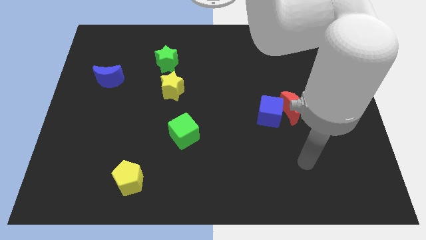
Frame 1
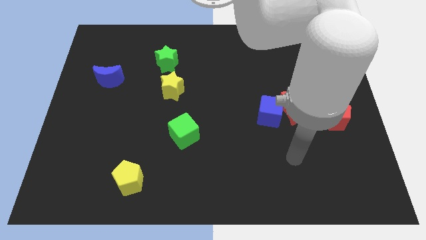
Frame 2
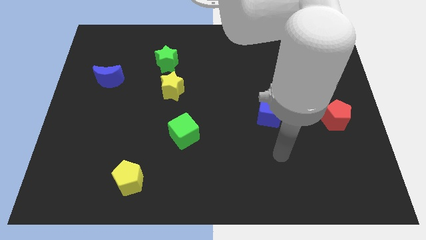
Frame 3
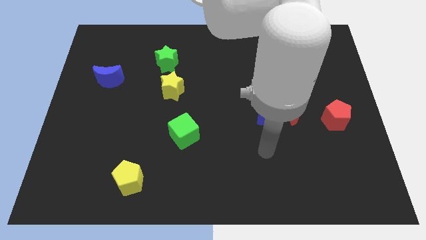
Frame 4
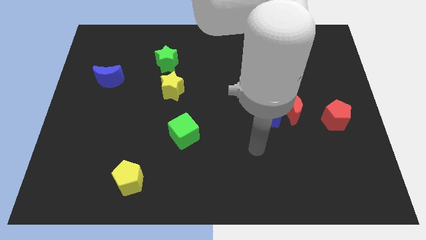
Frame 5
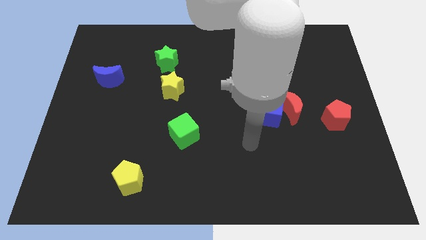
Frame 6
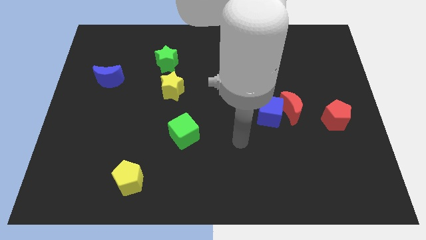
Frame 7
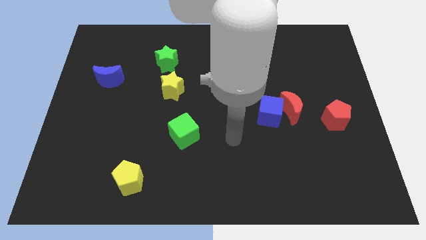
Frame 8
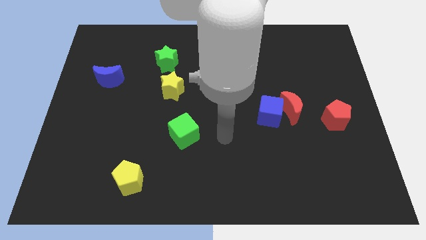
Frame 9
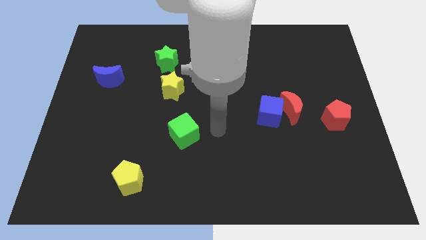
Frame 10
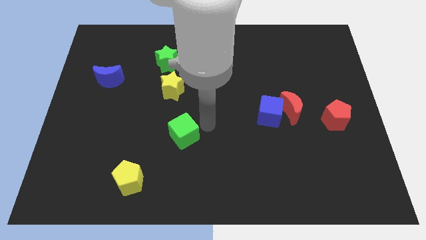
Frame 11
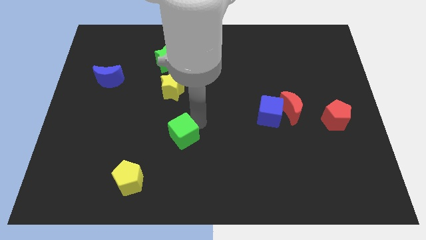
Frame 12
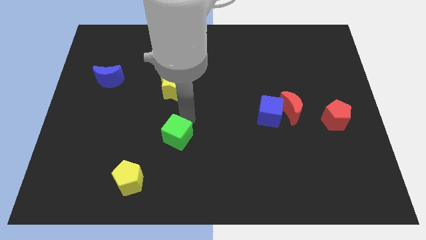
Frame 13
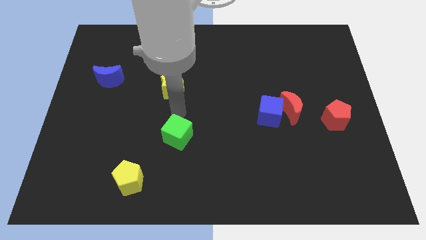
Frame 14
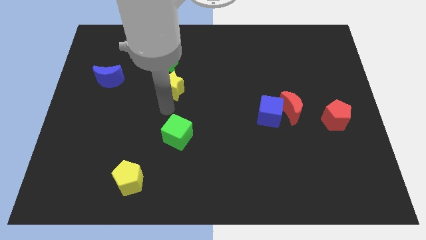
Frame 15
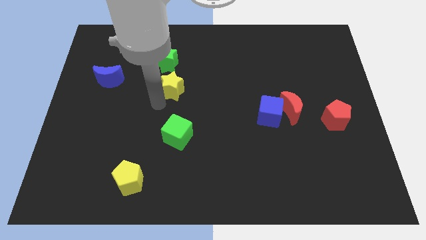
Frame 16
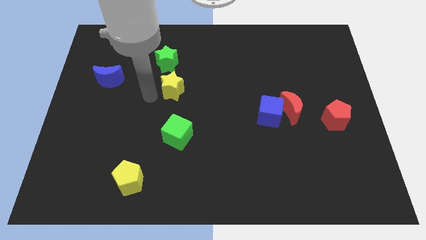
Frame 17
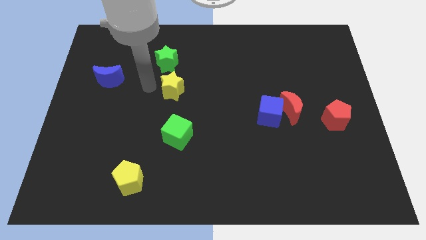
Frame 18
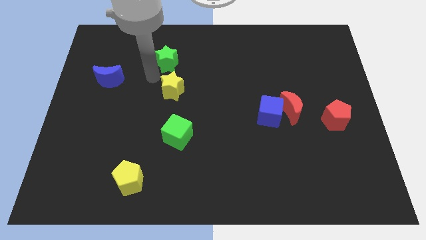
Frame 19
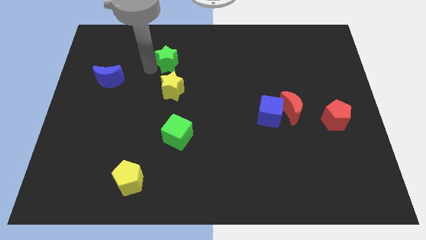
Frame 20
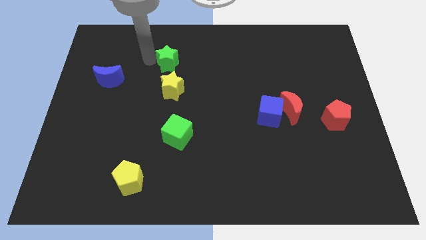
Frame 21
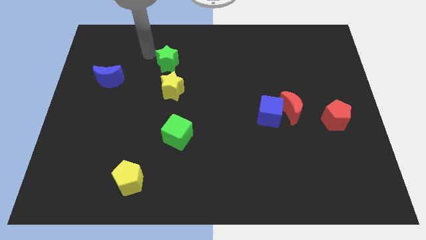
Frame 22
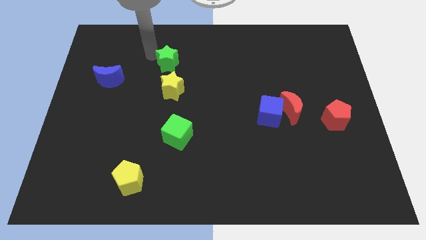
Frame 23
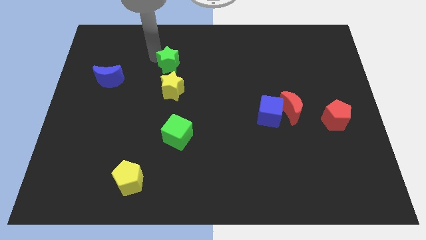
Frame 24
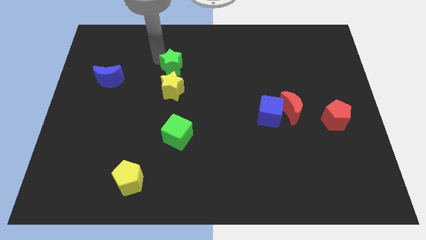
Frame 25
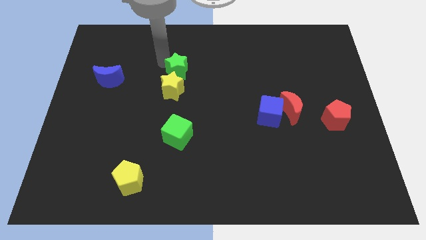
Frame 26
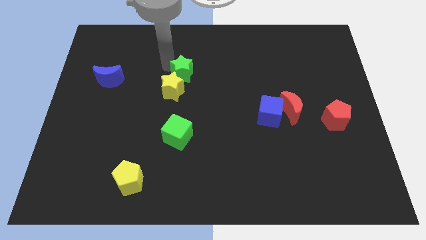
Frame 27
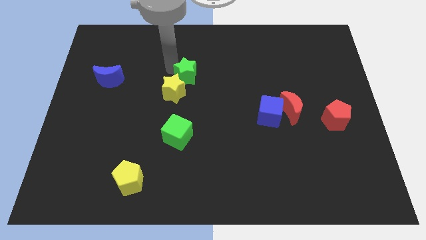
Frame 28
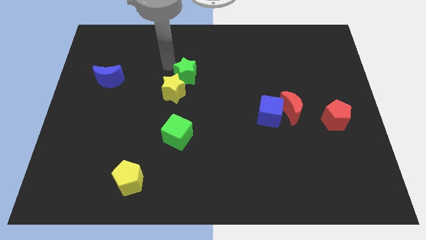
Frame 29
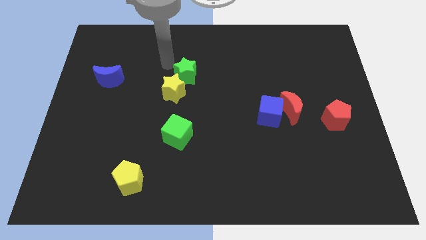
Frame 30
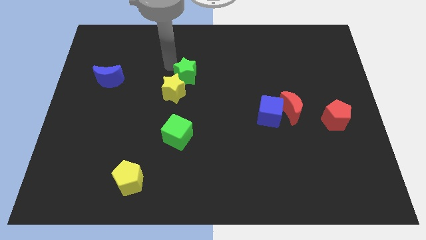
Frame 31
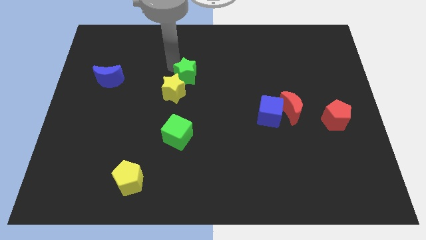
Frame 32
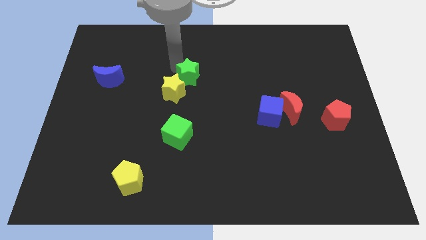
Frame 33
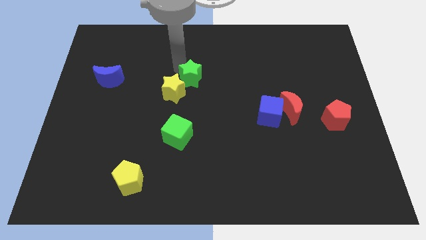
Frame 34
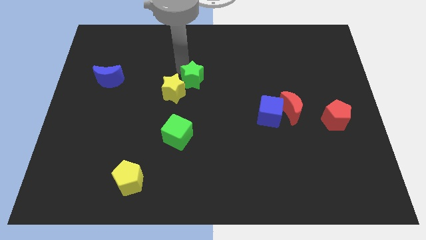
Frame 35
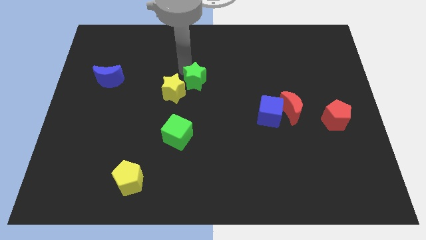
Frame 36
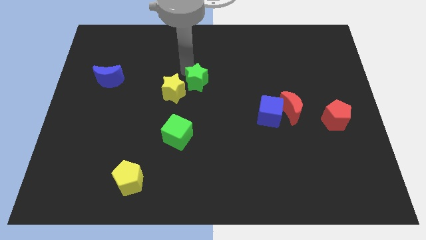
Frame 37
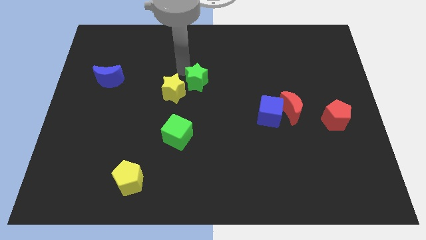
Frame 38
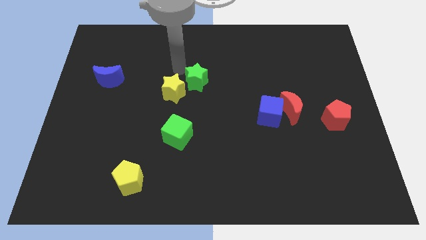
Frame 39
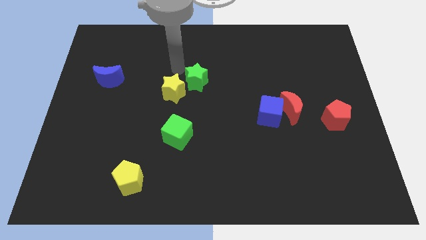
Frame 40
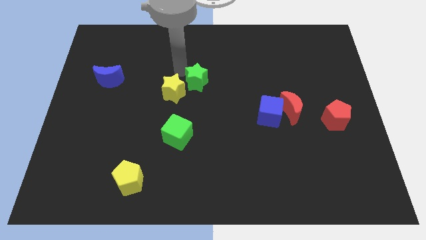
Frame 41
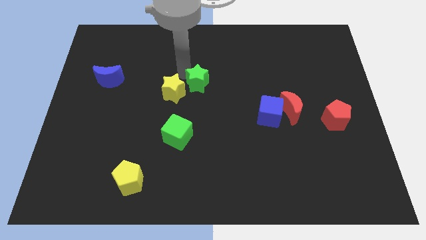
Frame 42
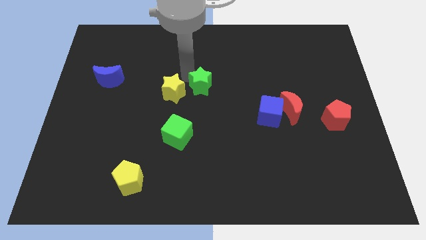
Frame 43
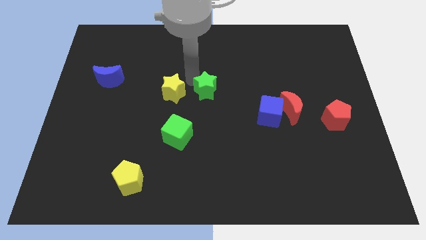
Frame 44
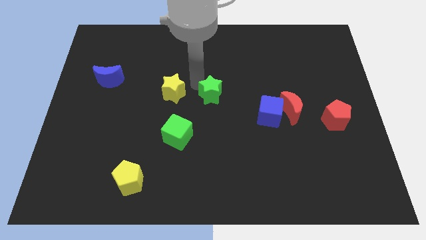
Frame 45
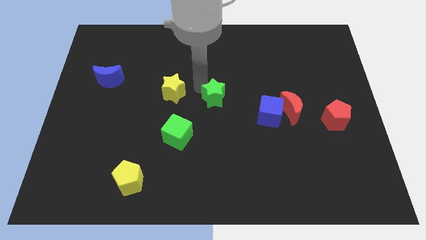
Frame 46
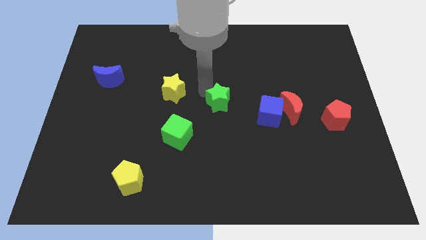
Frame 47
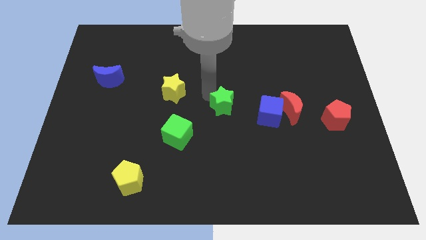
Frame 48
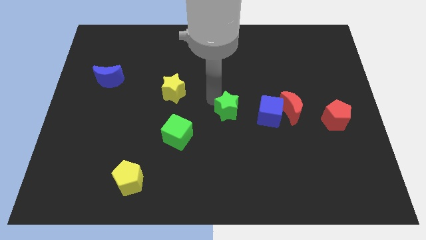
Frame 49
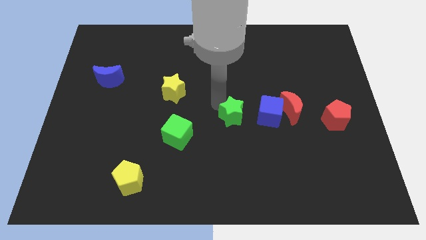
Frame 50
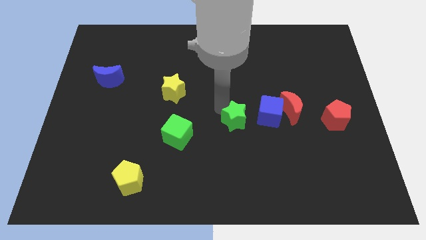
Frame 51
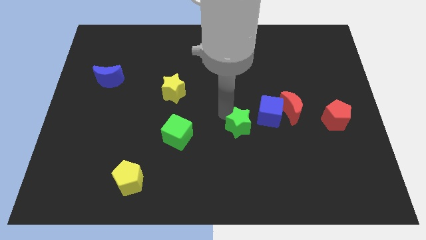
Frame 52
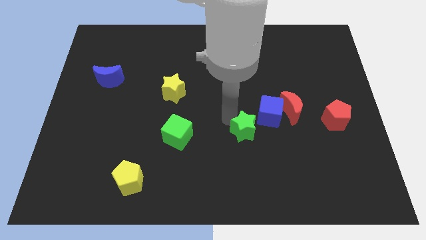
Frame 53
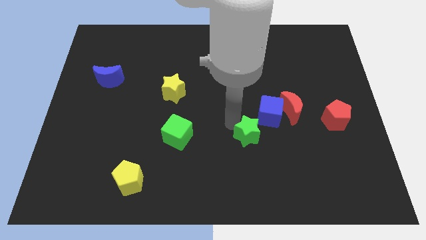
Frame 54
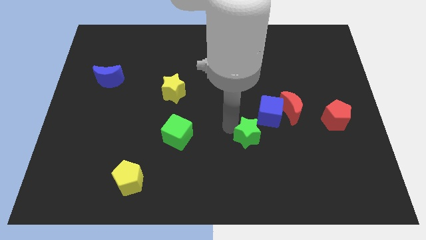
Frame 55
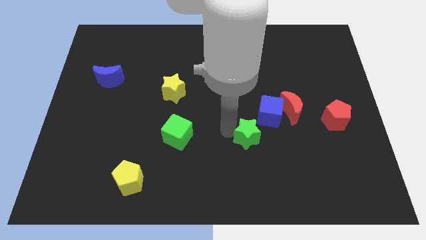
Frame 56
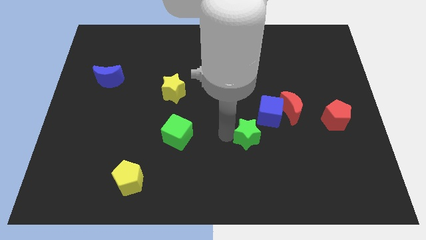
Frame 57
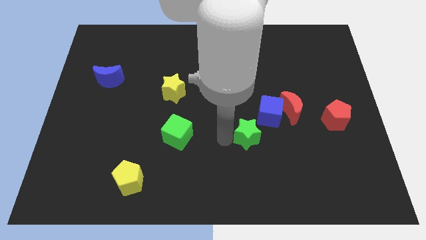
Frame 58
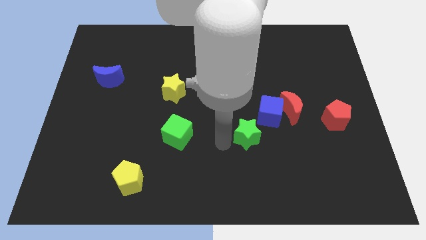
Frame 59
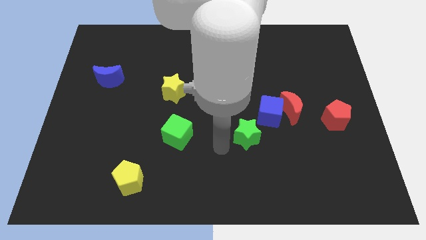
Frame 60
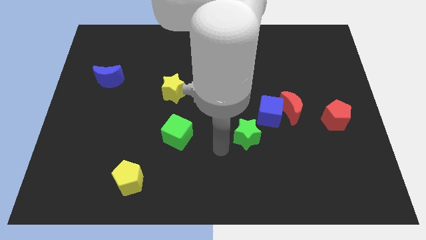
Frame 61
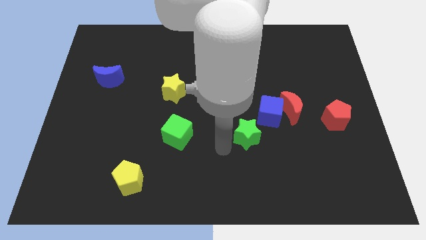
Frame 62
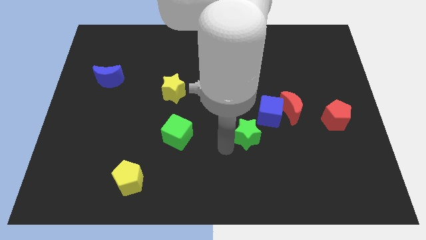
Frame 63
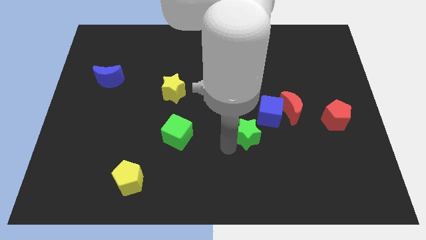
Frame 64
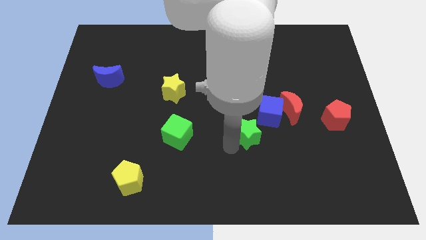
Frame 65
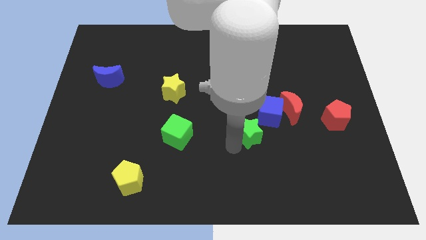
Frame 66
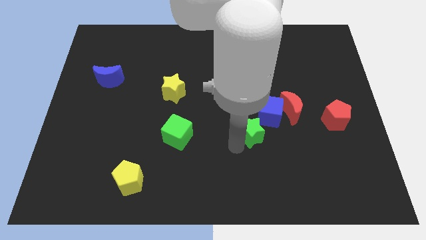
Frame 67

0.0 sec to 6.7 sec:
move the green star to the bottom side of the blue cube

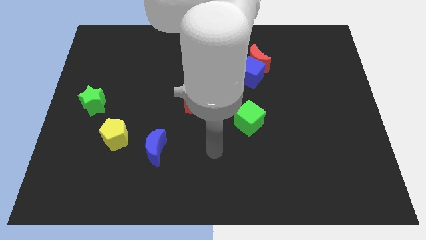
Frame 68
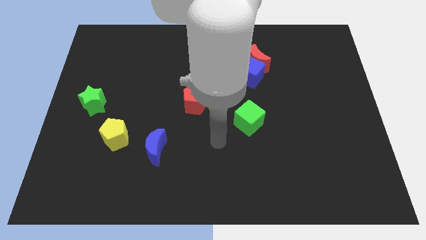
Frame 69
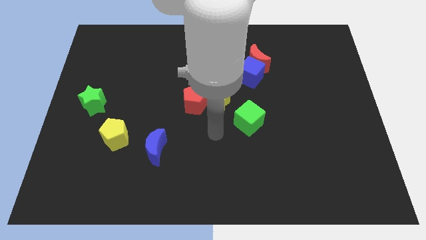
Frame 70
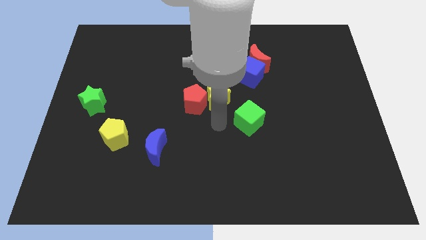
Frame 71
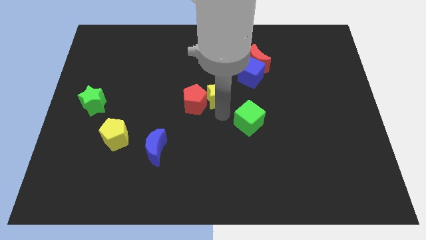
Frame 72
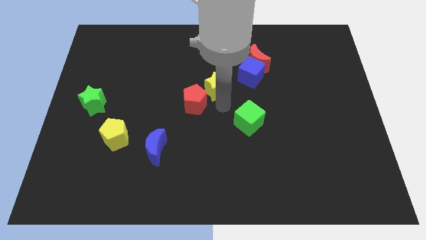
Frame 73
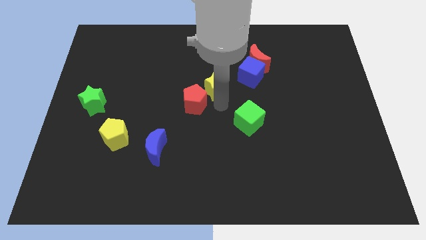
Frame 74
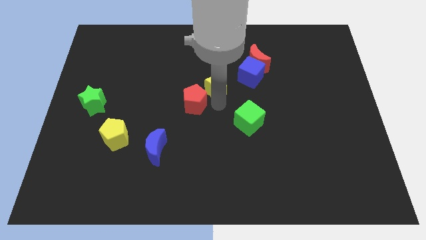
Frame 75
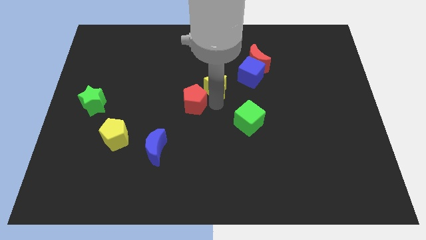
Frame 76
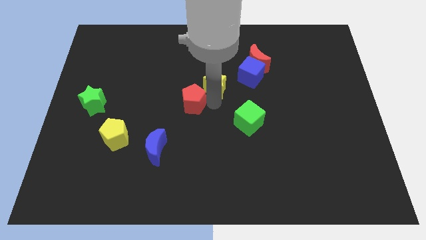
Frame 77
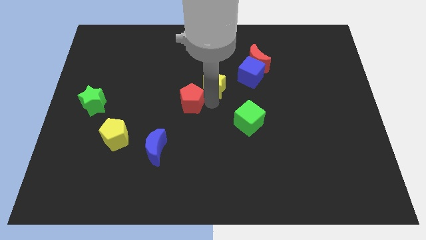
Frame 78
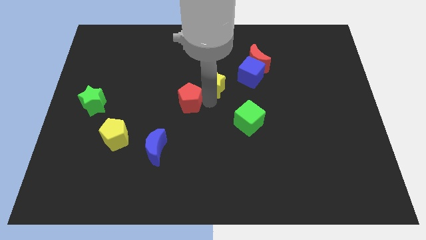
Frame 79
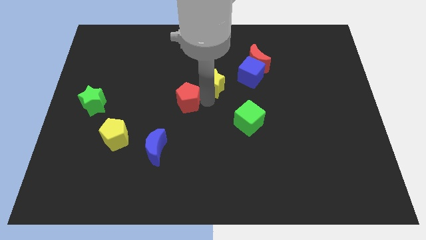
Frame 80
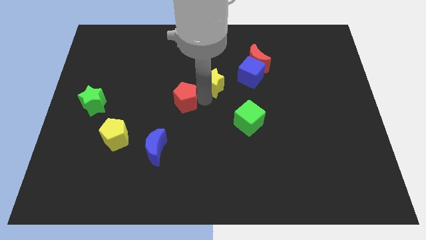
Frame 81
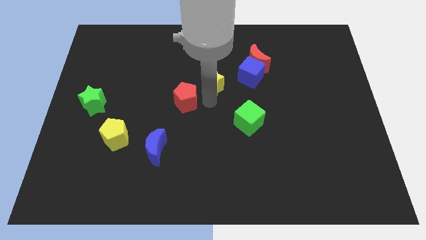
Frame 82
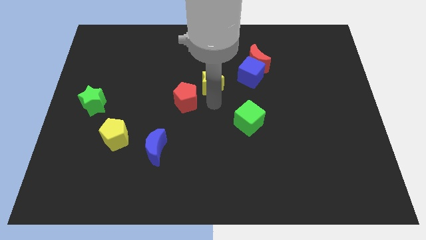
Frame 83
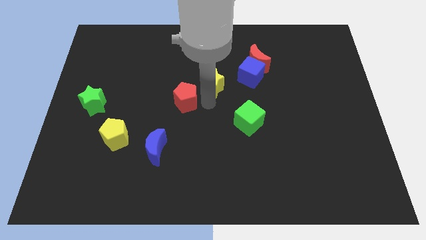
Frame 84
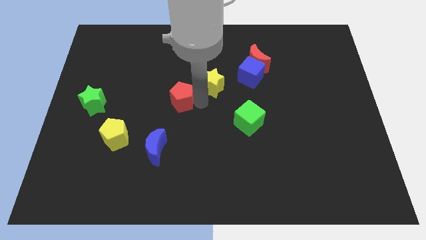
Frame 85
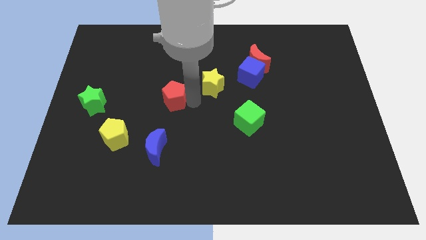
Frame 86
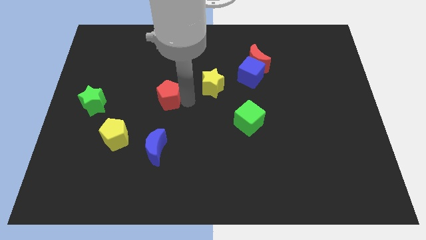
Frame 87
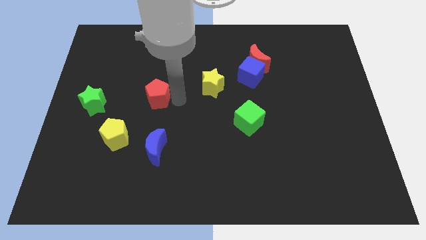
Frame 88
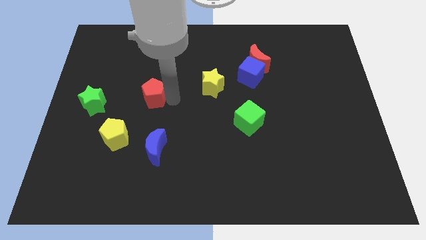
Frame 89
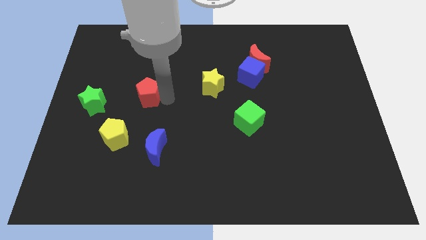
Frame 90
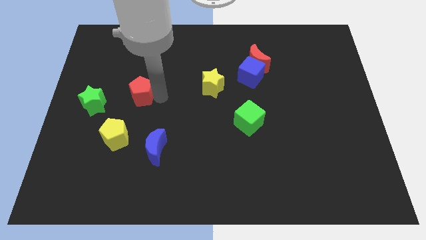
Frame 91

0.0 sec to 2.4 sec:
push the red pentagon above the yellow pentagon
